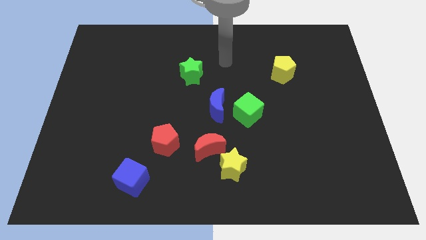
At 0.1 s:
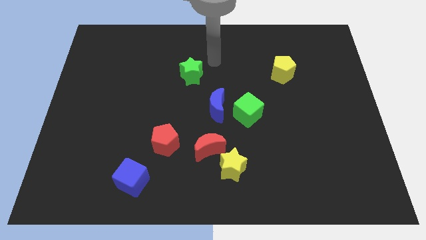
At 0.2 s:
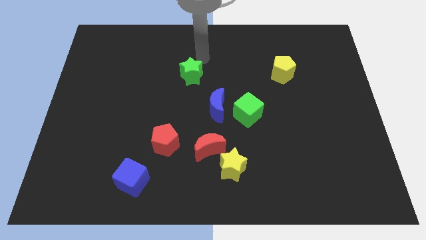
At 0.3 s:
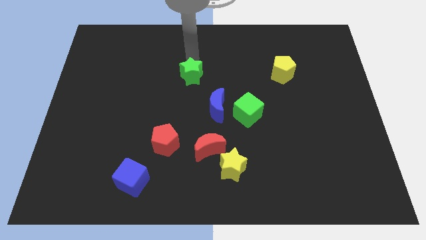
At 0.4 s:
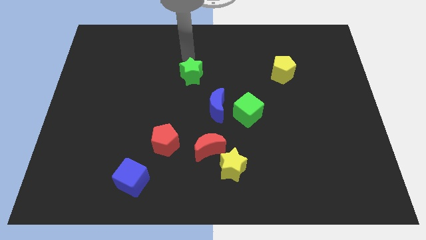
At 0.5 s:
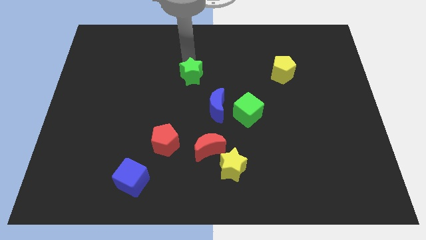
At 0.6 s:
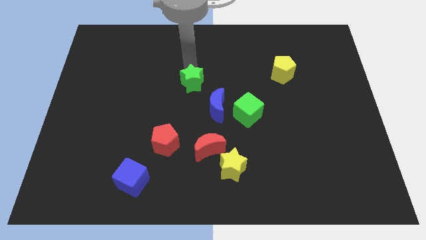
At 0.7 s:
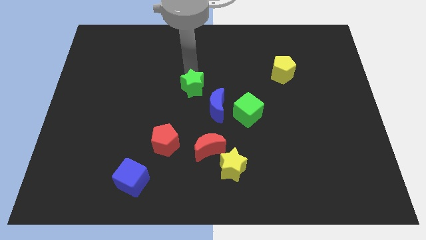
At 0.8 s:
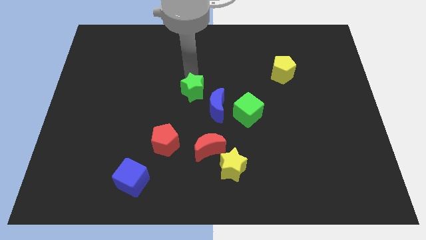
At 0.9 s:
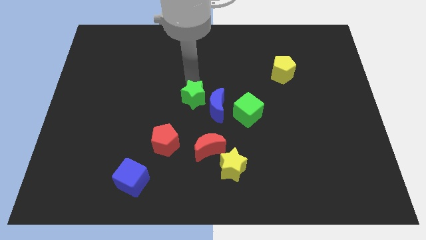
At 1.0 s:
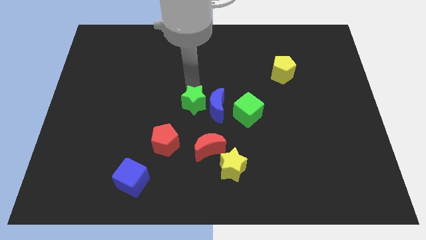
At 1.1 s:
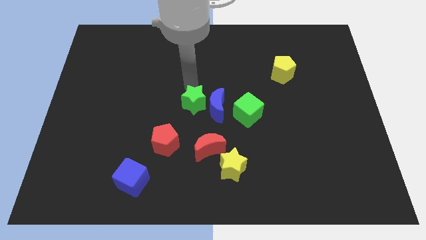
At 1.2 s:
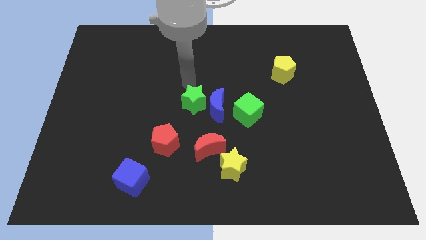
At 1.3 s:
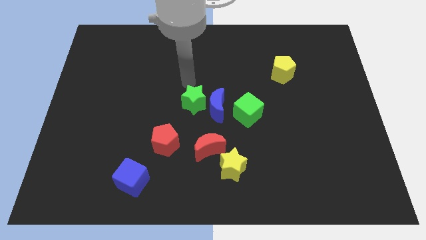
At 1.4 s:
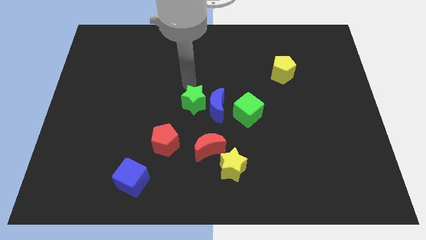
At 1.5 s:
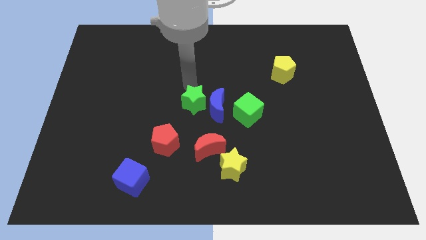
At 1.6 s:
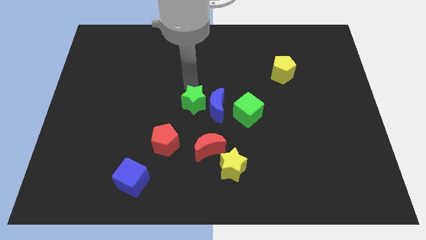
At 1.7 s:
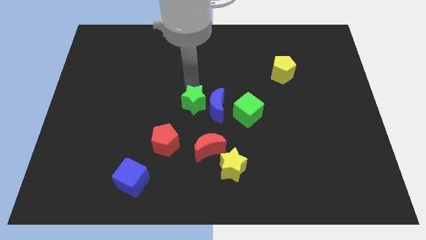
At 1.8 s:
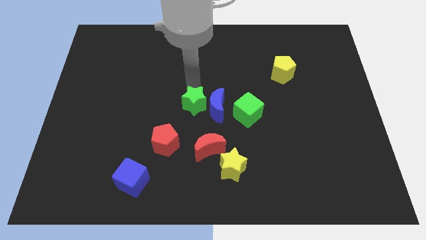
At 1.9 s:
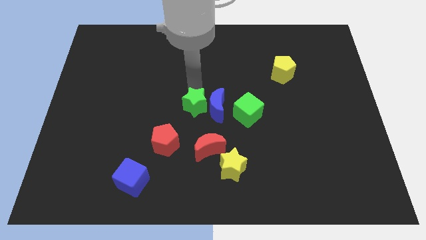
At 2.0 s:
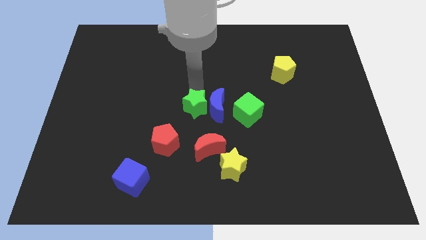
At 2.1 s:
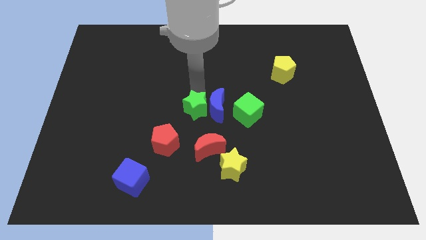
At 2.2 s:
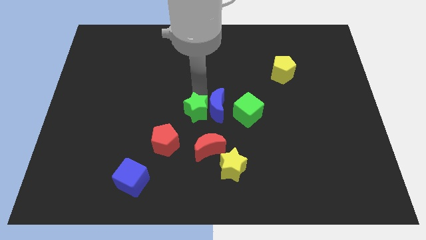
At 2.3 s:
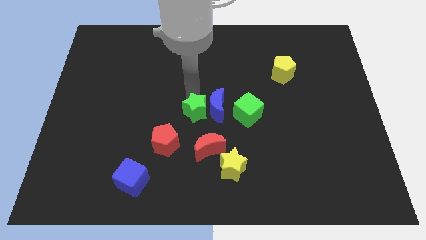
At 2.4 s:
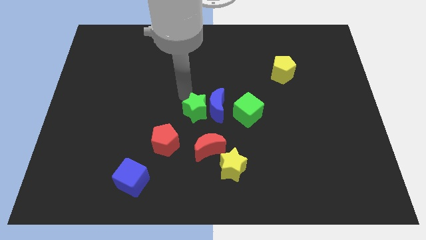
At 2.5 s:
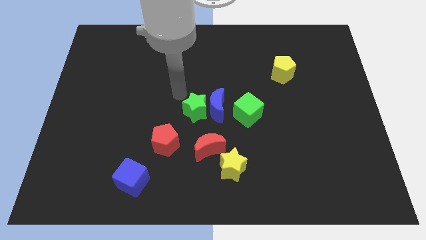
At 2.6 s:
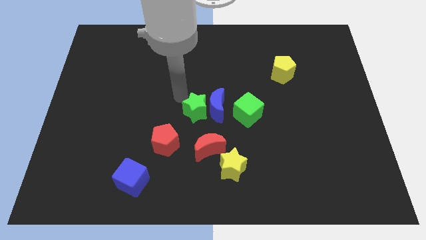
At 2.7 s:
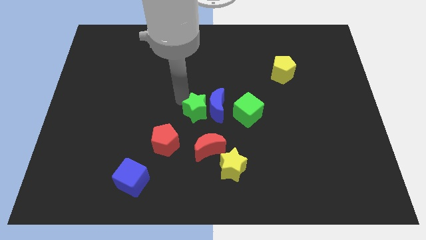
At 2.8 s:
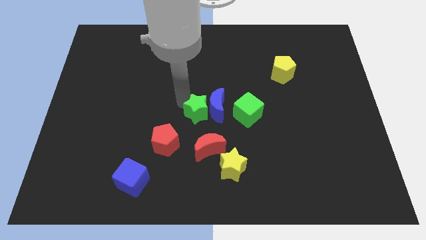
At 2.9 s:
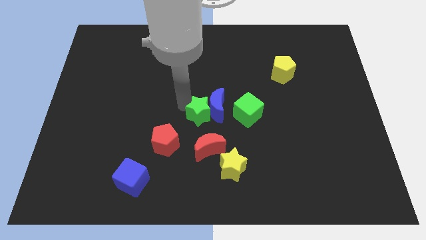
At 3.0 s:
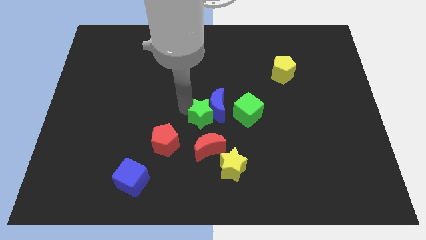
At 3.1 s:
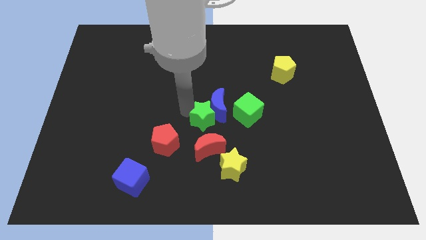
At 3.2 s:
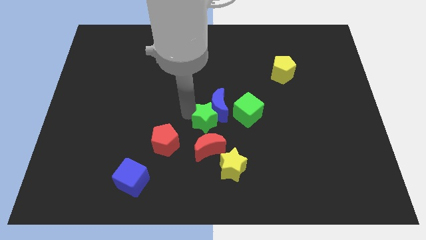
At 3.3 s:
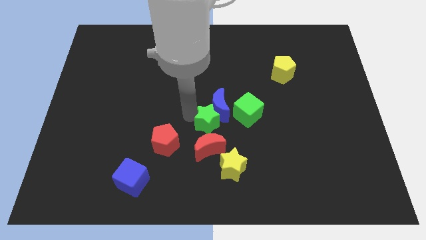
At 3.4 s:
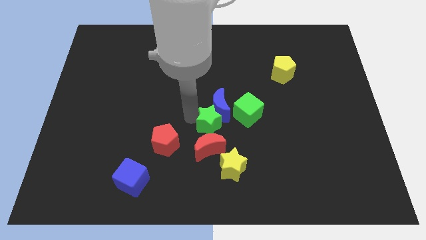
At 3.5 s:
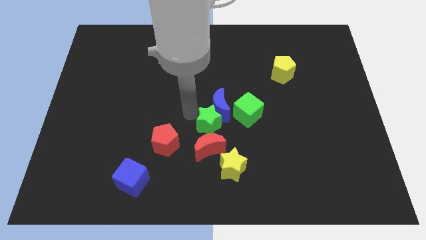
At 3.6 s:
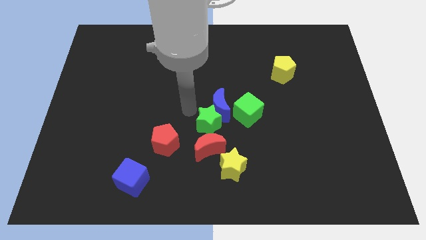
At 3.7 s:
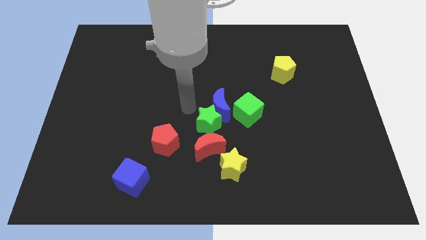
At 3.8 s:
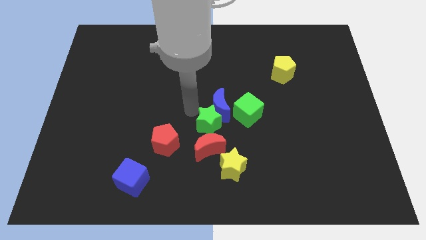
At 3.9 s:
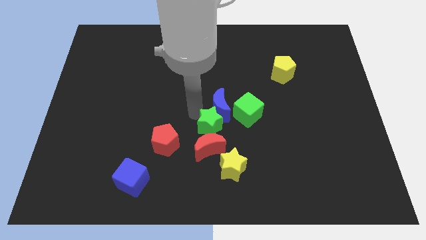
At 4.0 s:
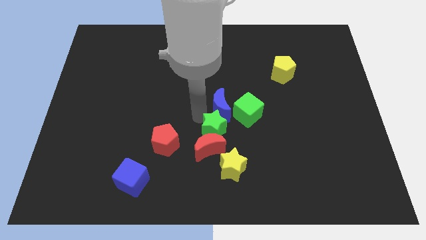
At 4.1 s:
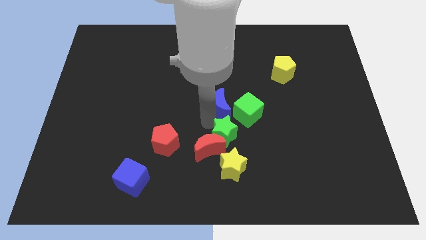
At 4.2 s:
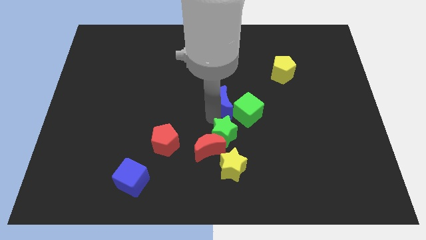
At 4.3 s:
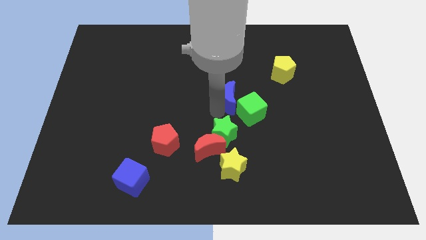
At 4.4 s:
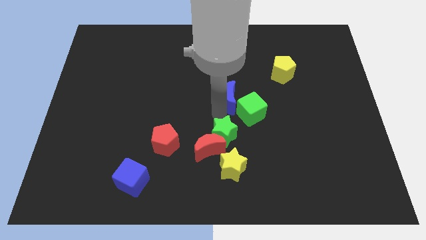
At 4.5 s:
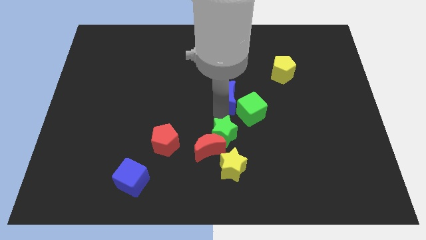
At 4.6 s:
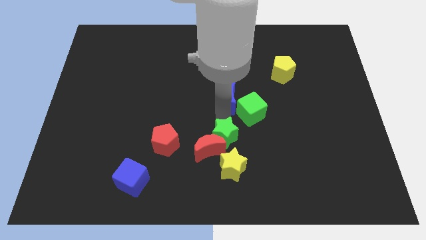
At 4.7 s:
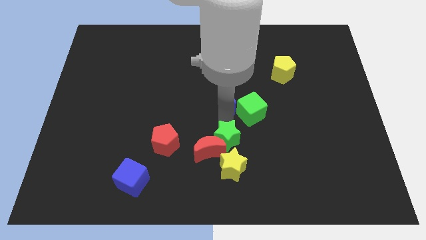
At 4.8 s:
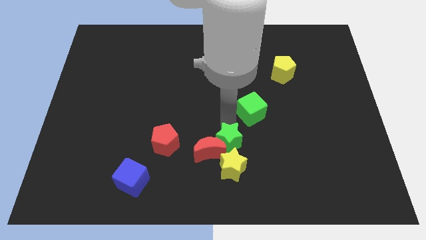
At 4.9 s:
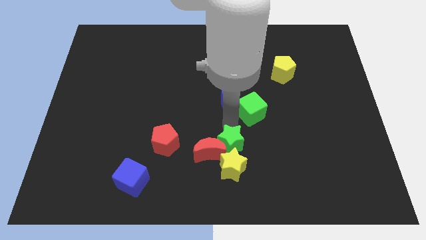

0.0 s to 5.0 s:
push the green star next to the yellow star

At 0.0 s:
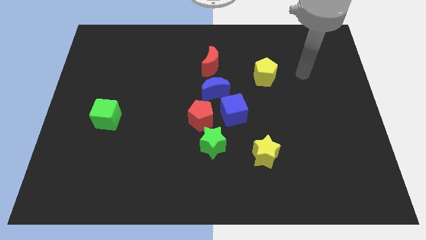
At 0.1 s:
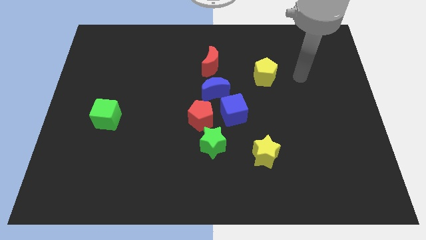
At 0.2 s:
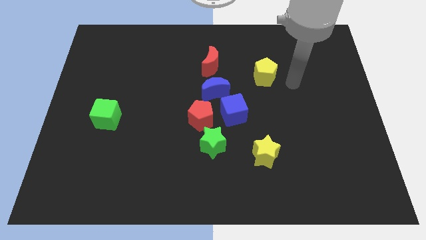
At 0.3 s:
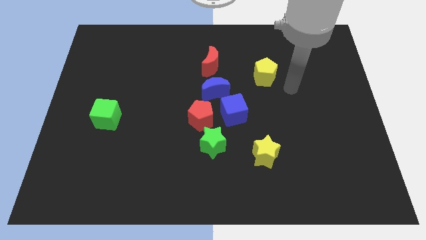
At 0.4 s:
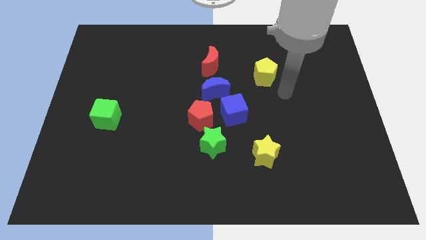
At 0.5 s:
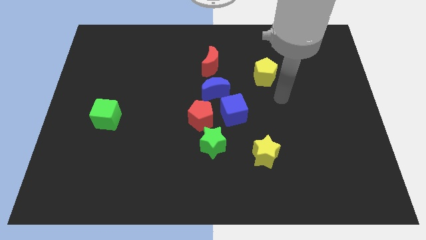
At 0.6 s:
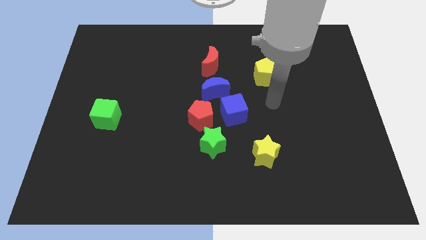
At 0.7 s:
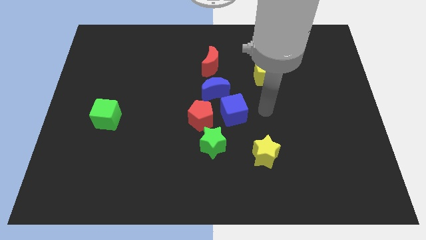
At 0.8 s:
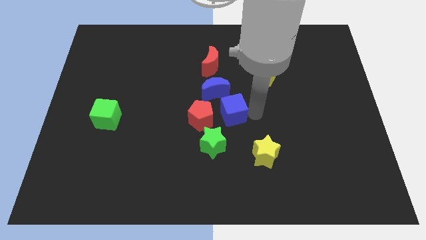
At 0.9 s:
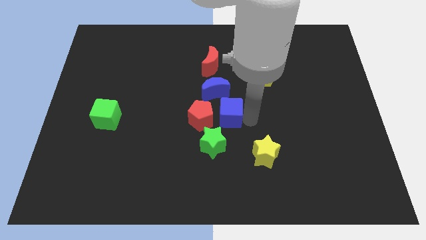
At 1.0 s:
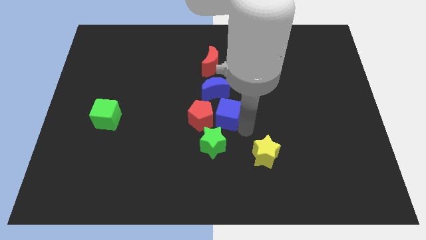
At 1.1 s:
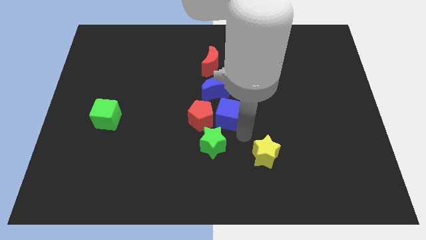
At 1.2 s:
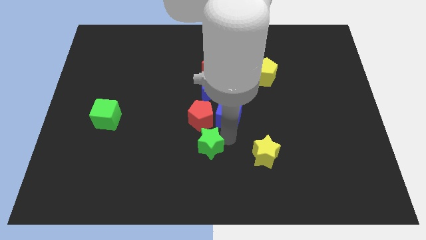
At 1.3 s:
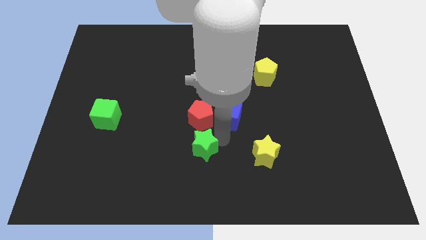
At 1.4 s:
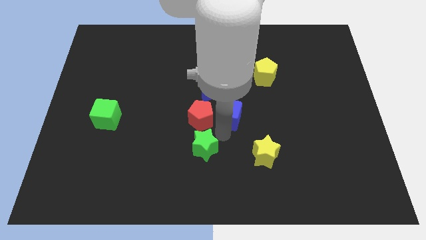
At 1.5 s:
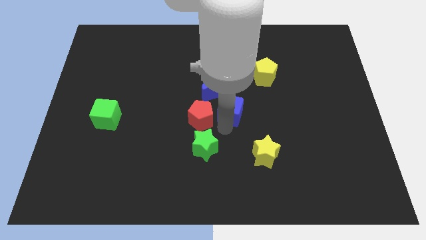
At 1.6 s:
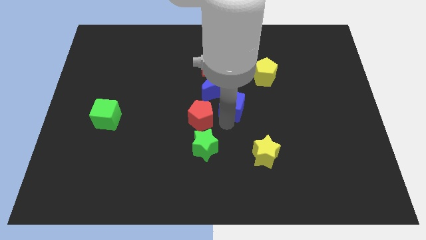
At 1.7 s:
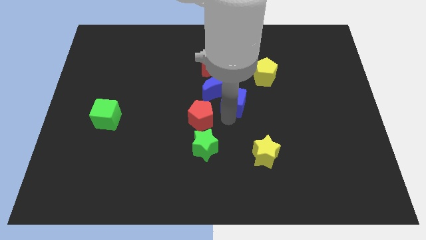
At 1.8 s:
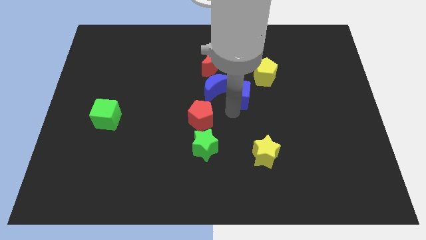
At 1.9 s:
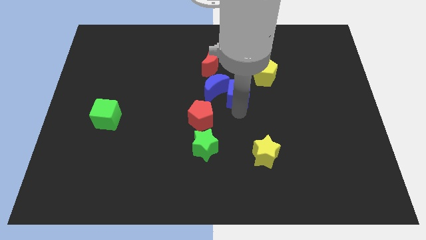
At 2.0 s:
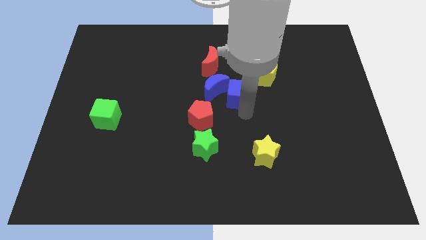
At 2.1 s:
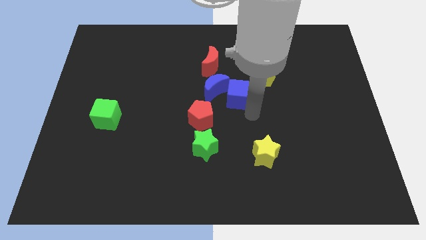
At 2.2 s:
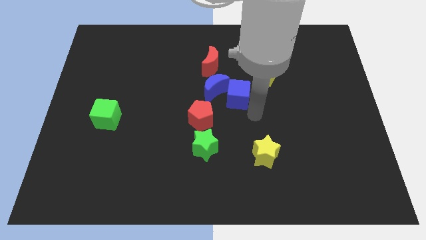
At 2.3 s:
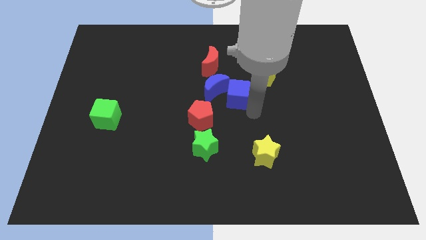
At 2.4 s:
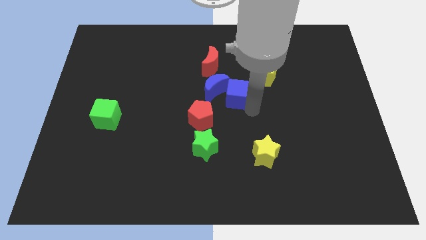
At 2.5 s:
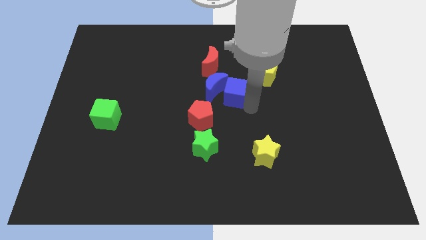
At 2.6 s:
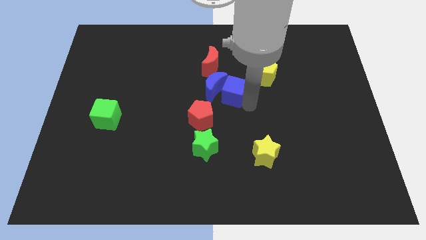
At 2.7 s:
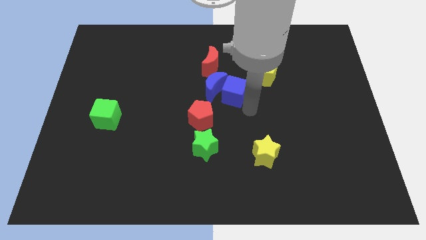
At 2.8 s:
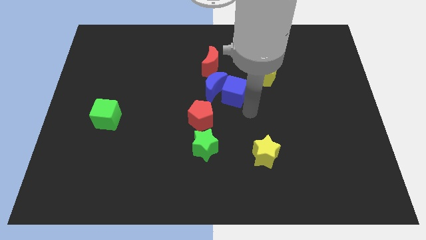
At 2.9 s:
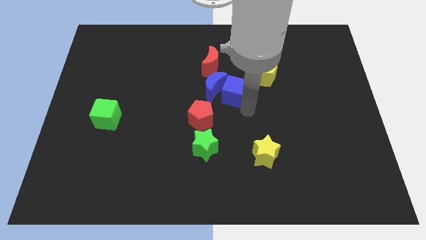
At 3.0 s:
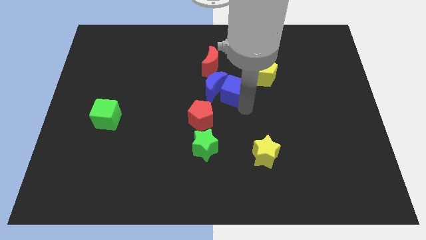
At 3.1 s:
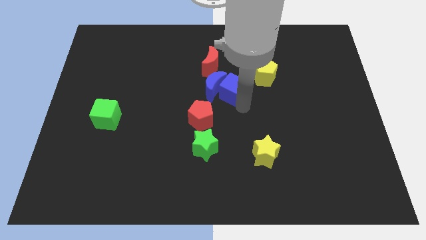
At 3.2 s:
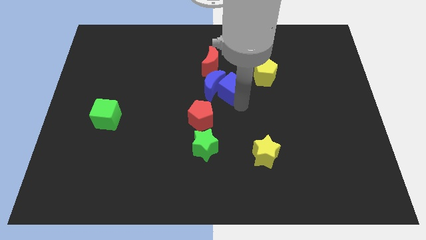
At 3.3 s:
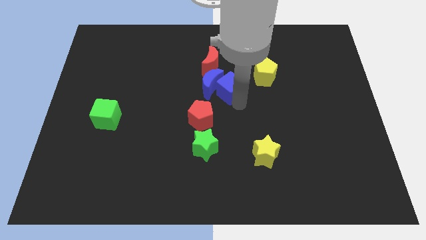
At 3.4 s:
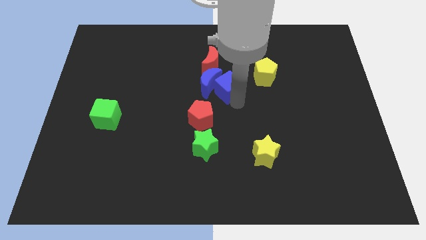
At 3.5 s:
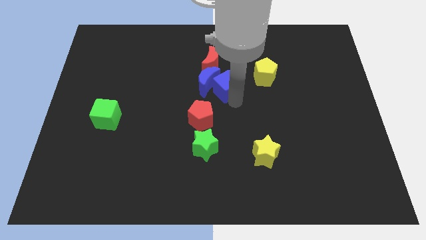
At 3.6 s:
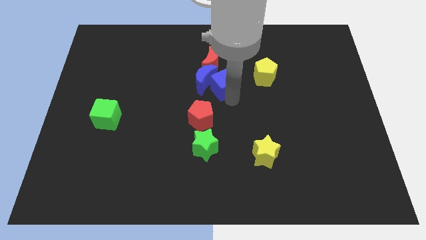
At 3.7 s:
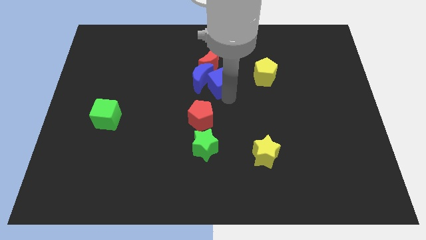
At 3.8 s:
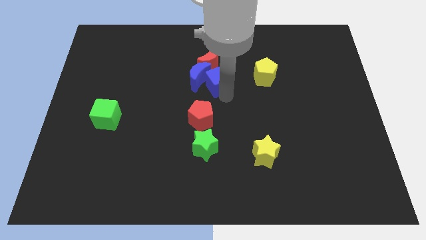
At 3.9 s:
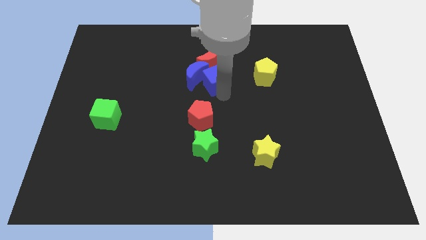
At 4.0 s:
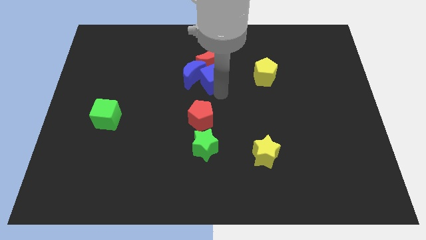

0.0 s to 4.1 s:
move the blue cube next to the red moon
